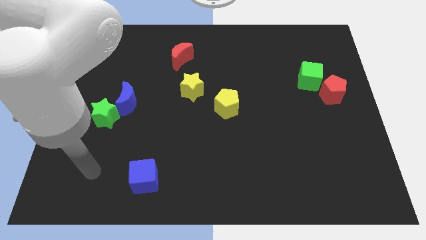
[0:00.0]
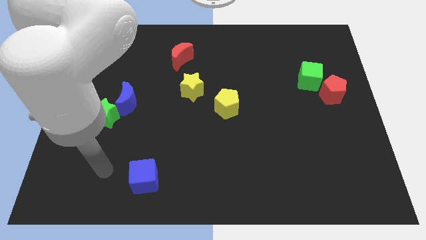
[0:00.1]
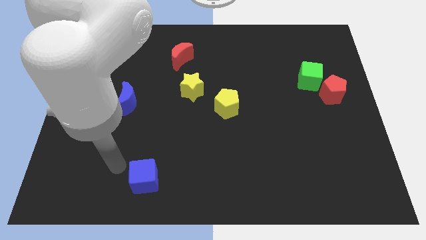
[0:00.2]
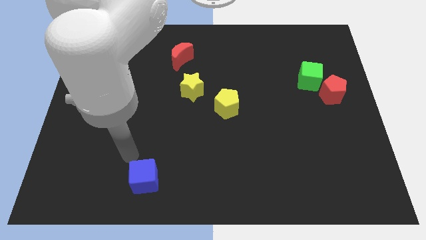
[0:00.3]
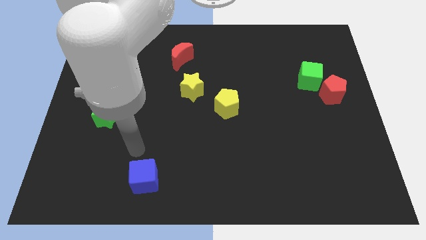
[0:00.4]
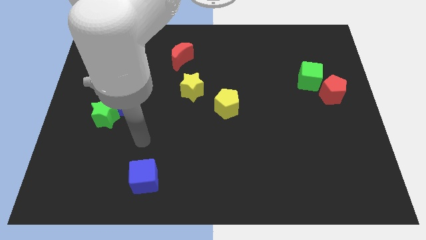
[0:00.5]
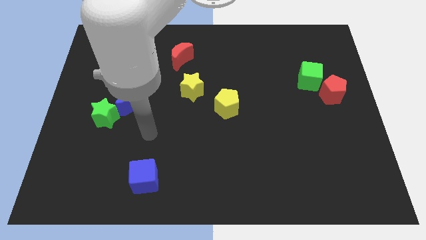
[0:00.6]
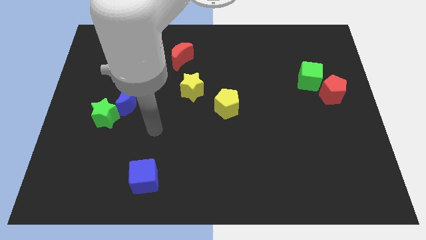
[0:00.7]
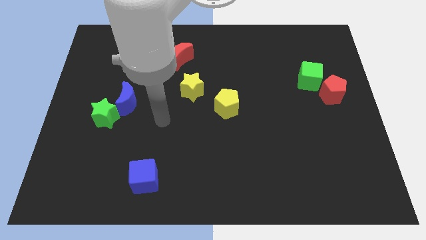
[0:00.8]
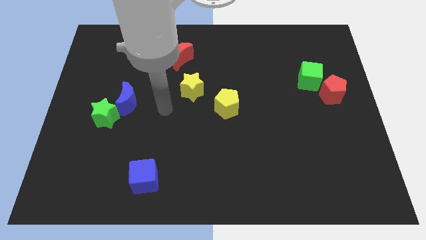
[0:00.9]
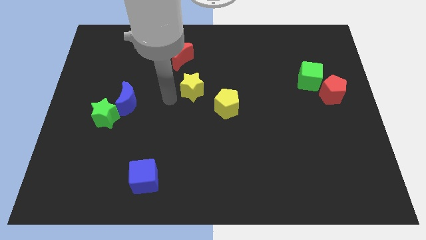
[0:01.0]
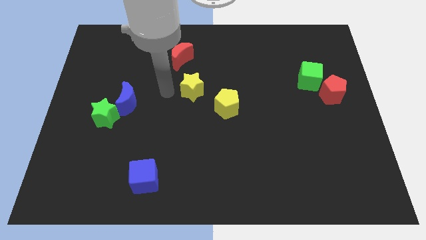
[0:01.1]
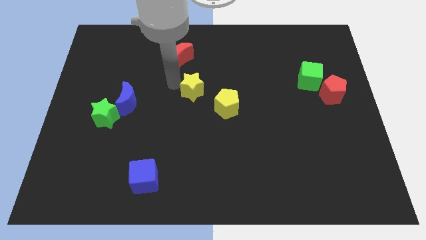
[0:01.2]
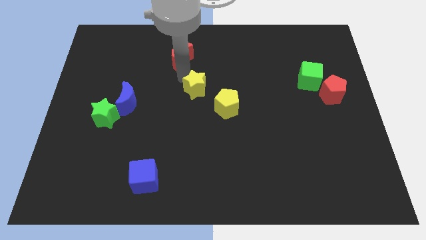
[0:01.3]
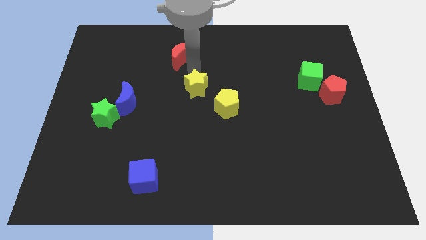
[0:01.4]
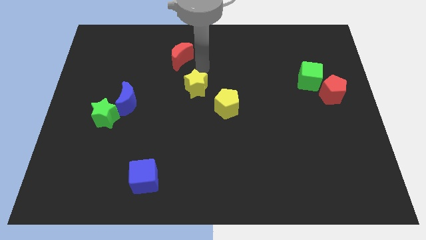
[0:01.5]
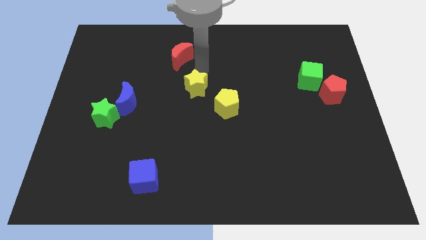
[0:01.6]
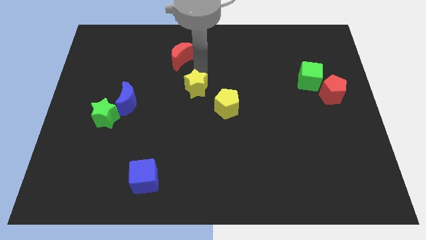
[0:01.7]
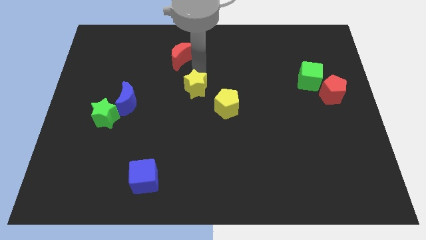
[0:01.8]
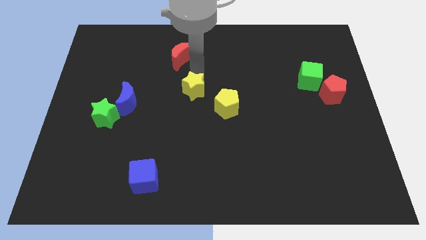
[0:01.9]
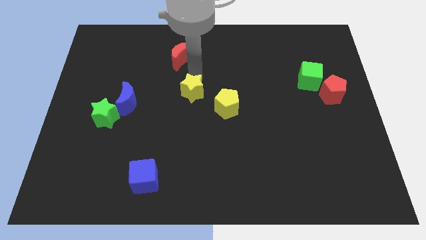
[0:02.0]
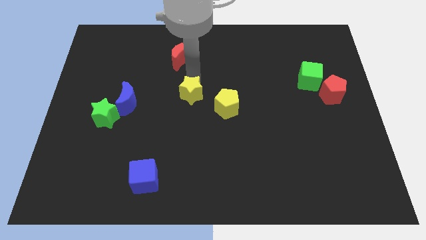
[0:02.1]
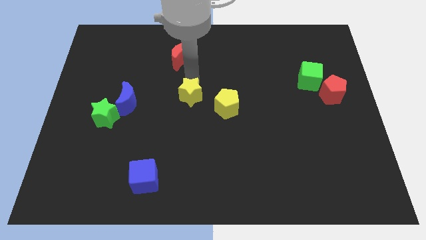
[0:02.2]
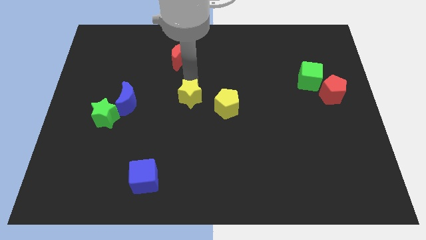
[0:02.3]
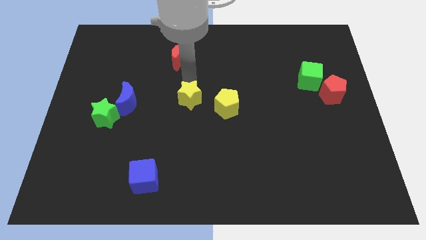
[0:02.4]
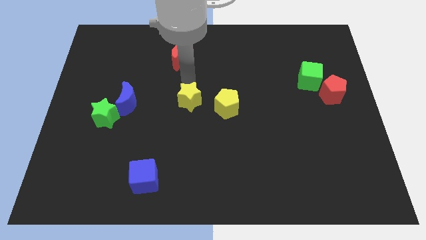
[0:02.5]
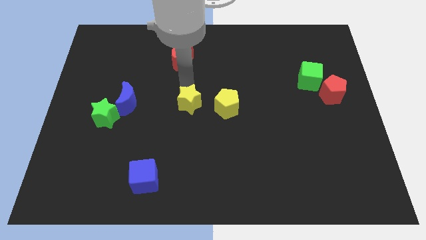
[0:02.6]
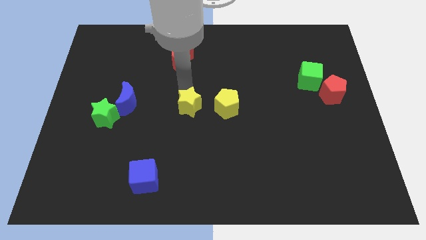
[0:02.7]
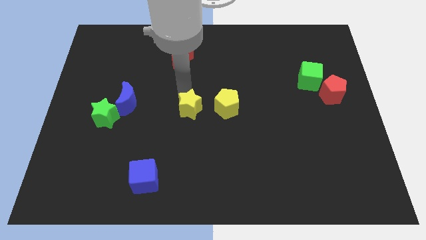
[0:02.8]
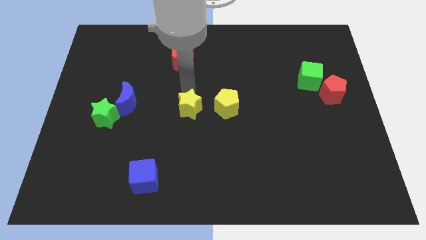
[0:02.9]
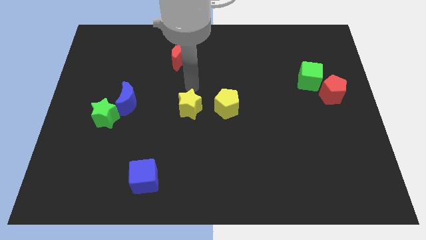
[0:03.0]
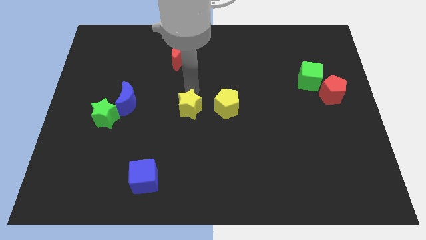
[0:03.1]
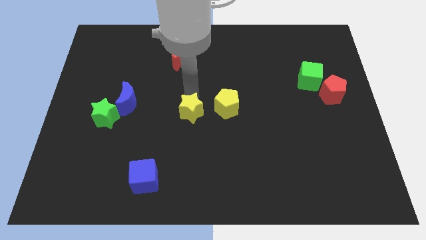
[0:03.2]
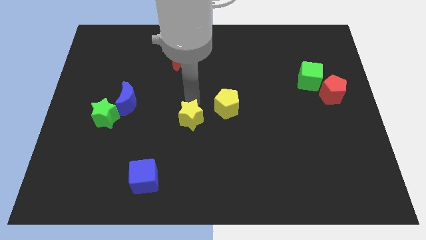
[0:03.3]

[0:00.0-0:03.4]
push the yellow star somewhat down

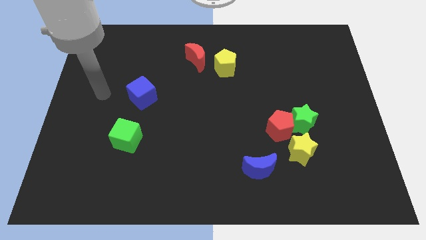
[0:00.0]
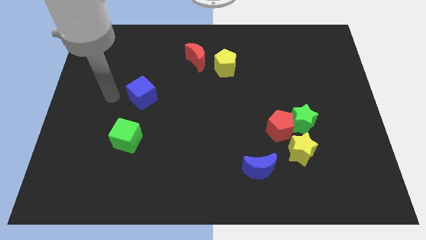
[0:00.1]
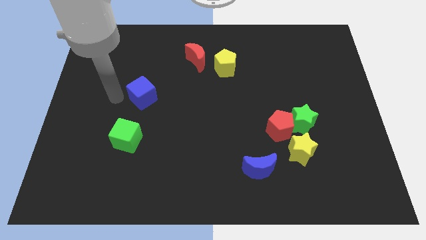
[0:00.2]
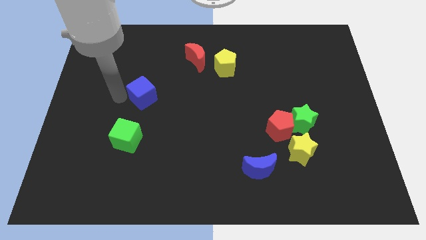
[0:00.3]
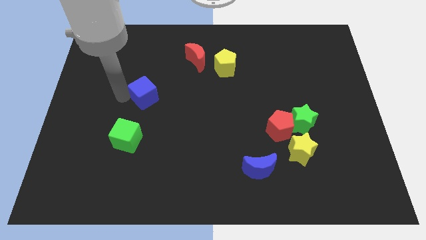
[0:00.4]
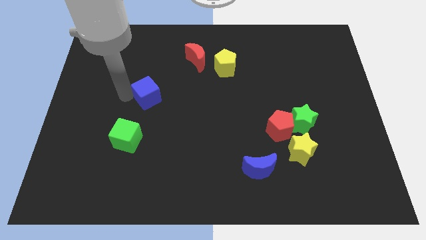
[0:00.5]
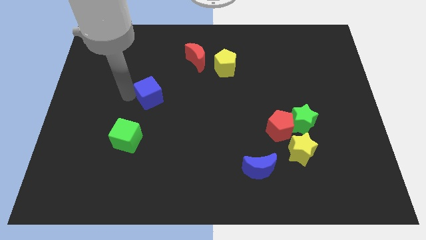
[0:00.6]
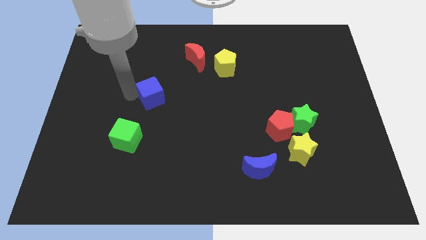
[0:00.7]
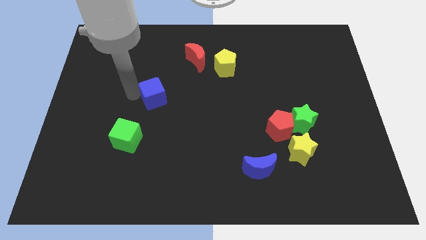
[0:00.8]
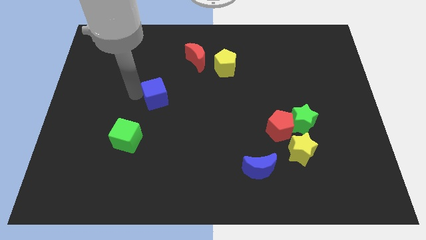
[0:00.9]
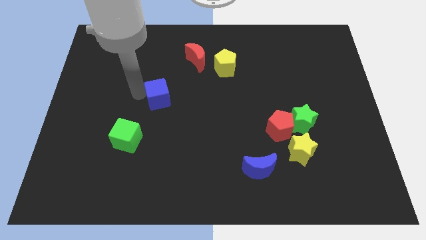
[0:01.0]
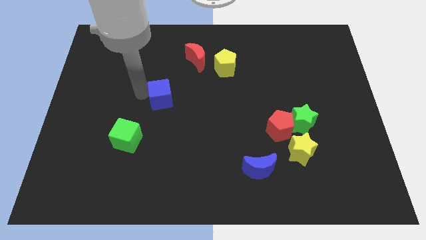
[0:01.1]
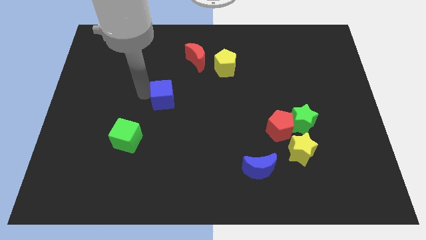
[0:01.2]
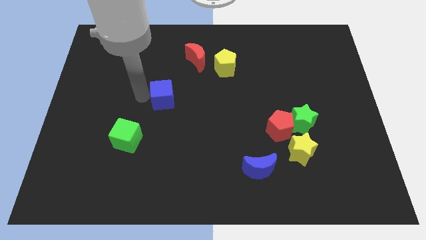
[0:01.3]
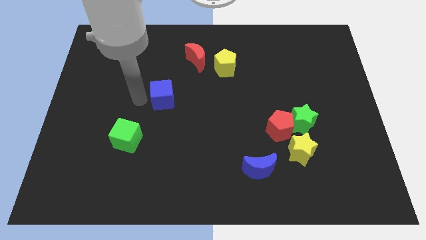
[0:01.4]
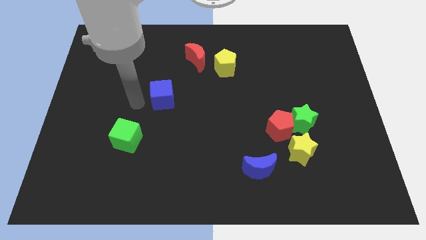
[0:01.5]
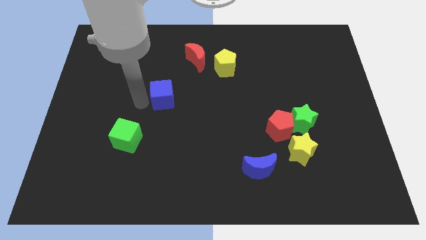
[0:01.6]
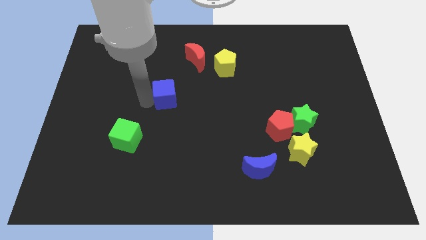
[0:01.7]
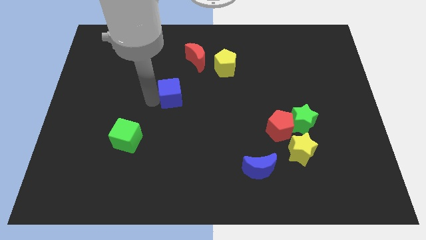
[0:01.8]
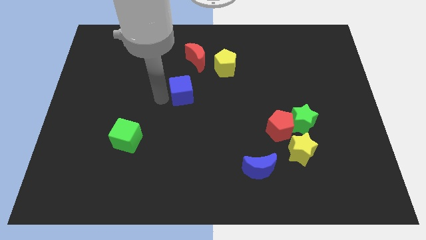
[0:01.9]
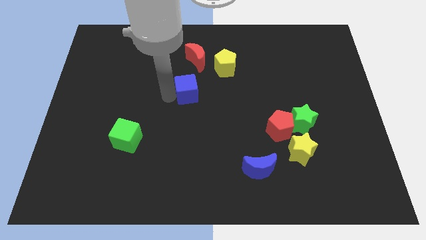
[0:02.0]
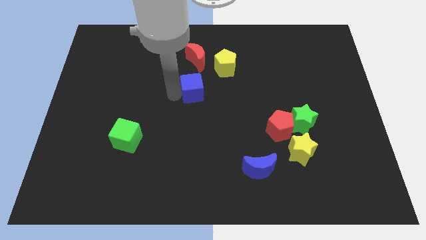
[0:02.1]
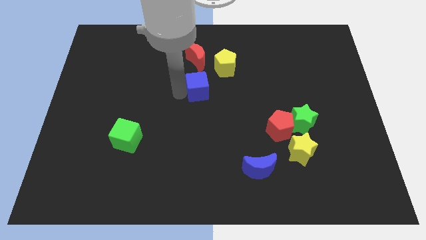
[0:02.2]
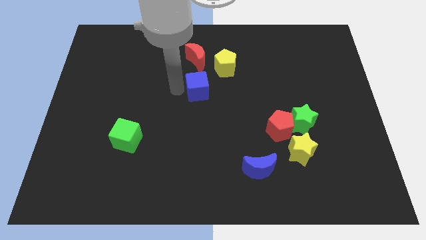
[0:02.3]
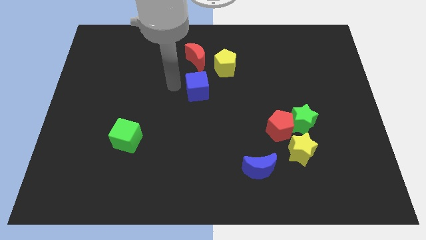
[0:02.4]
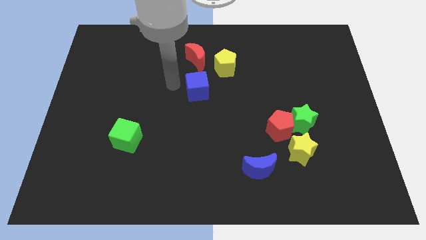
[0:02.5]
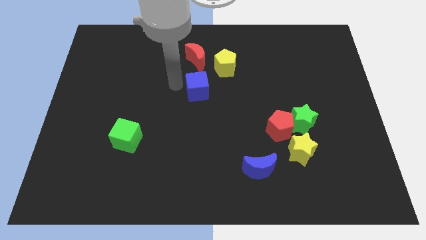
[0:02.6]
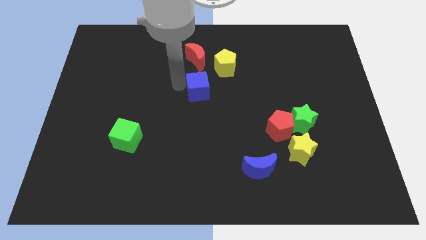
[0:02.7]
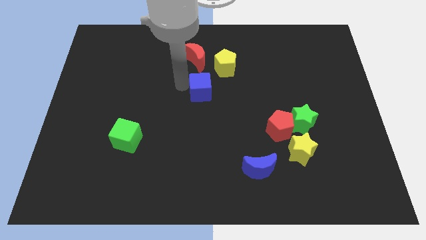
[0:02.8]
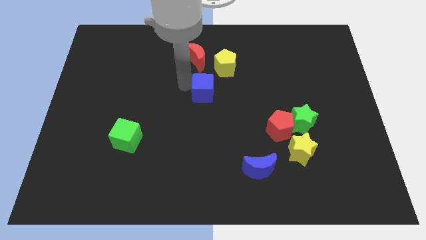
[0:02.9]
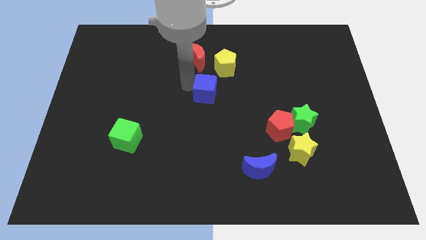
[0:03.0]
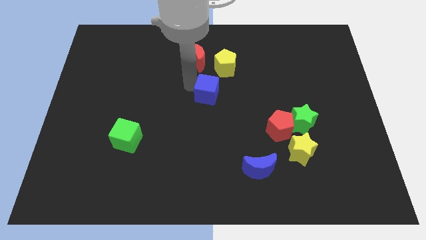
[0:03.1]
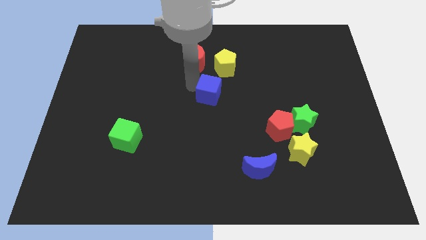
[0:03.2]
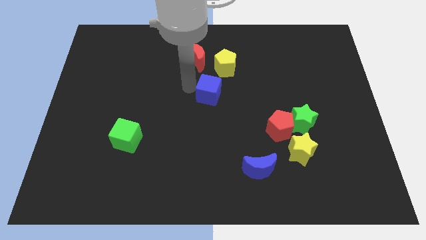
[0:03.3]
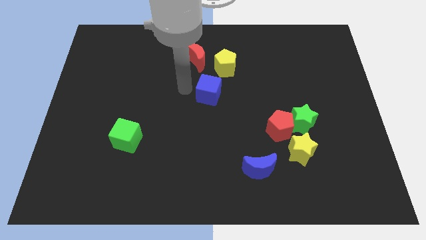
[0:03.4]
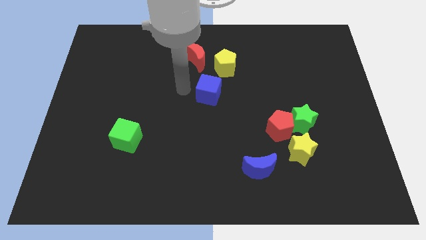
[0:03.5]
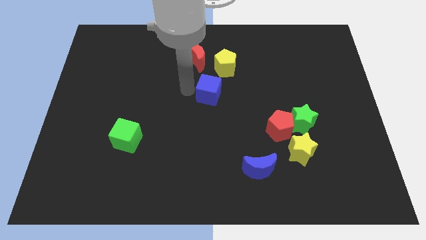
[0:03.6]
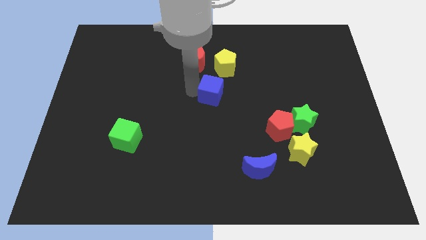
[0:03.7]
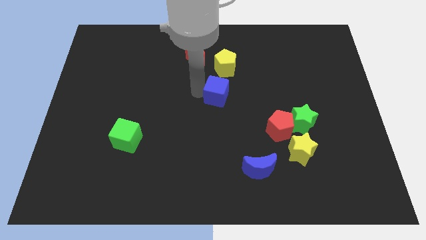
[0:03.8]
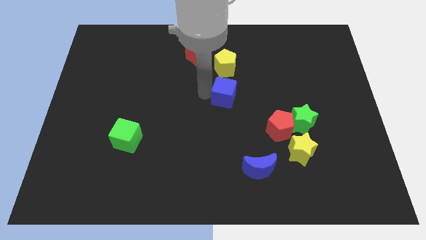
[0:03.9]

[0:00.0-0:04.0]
move the blue cube to the right

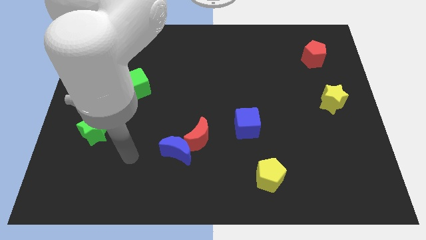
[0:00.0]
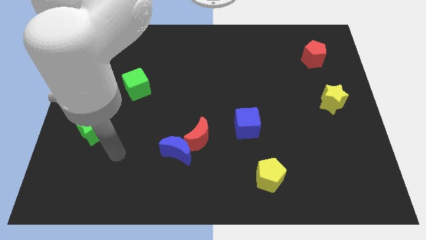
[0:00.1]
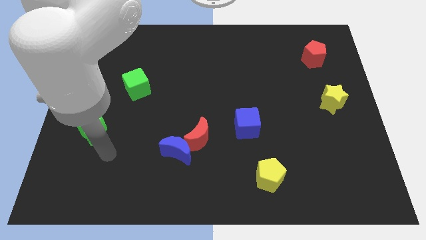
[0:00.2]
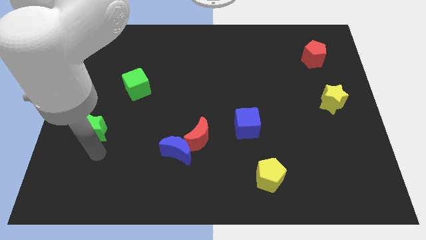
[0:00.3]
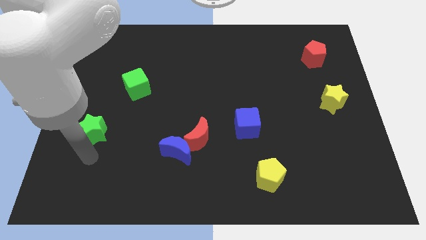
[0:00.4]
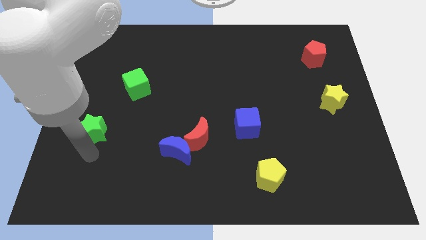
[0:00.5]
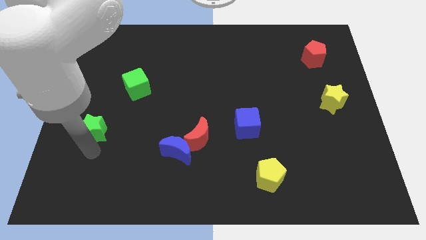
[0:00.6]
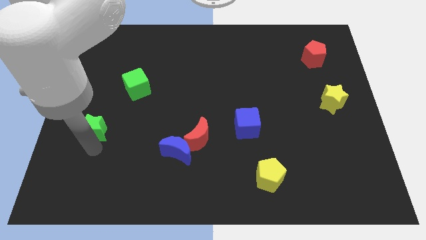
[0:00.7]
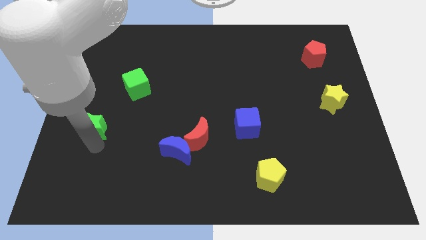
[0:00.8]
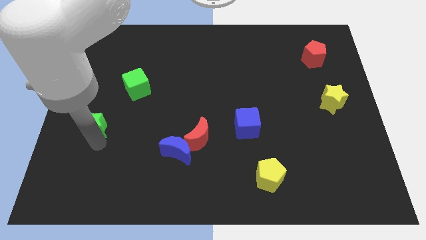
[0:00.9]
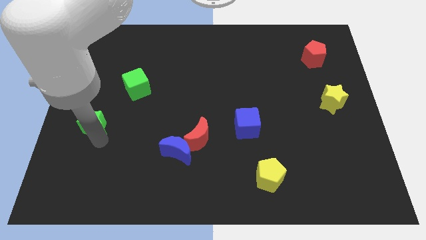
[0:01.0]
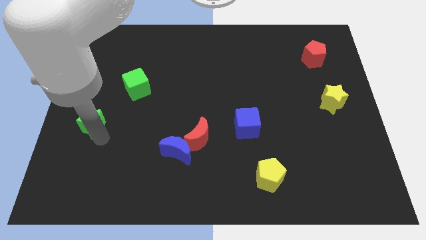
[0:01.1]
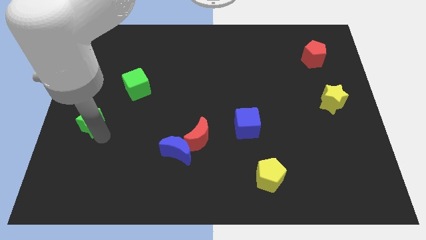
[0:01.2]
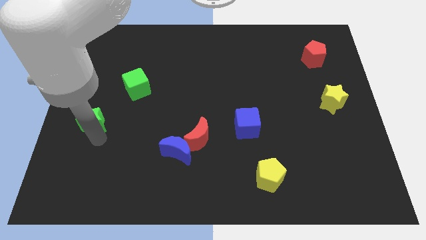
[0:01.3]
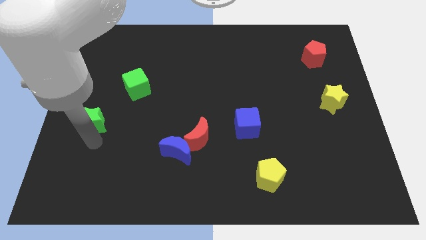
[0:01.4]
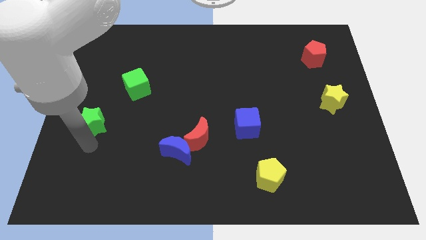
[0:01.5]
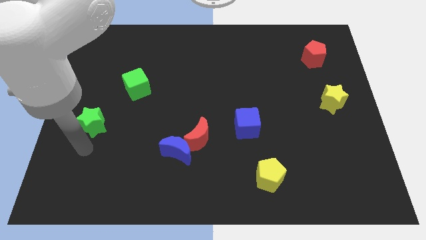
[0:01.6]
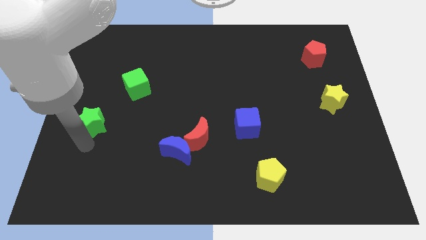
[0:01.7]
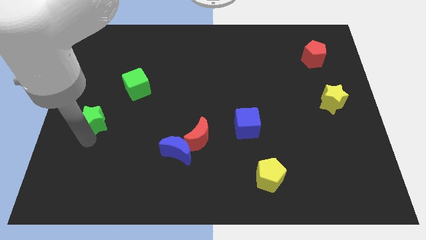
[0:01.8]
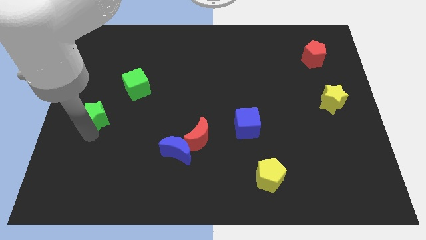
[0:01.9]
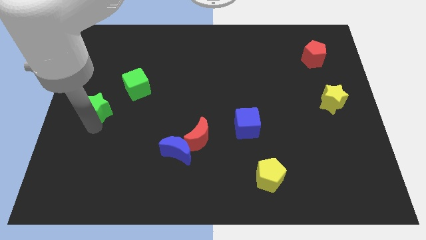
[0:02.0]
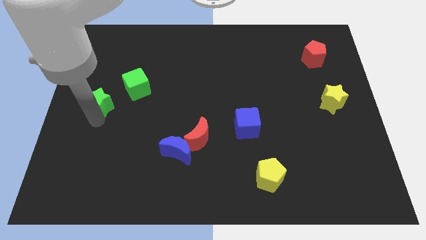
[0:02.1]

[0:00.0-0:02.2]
push the green star somewhat up
